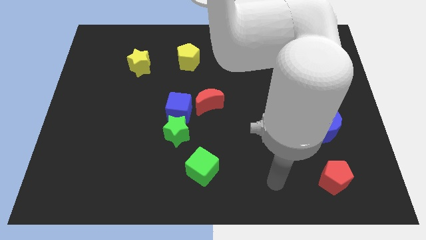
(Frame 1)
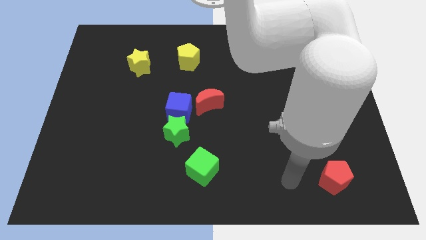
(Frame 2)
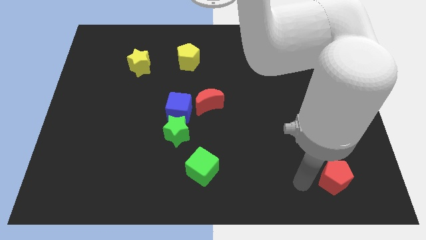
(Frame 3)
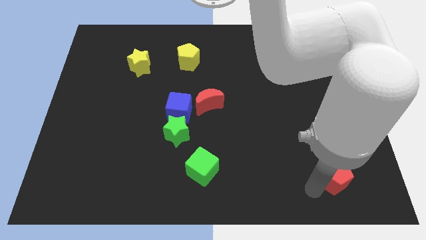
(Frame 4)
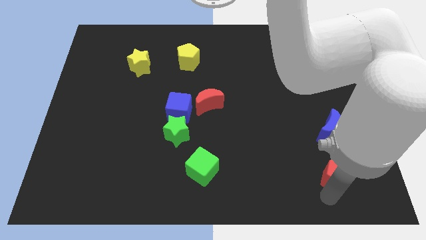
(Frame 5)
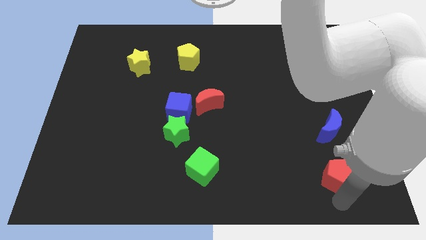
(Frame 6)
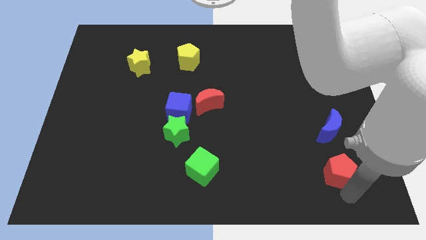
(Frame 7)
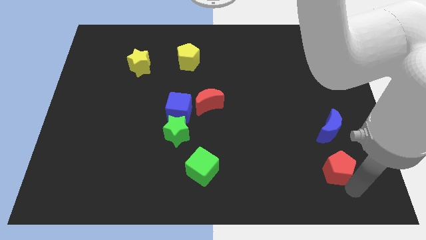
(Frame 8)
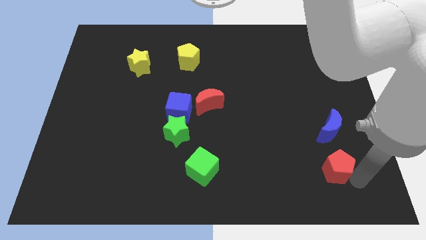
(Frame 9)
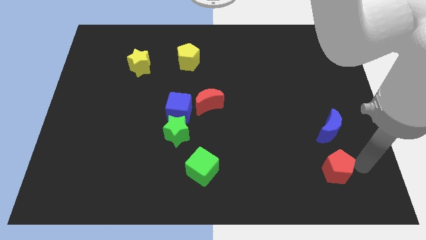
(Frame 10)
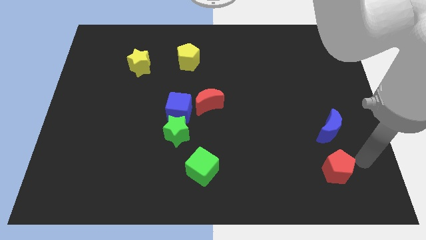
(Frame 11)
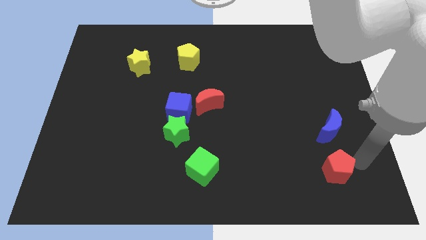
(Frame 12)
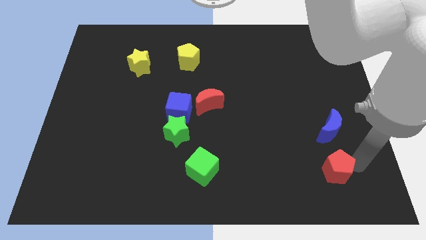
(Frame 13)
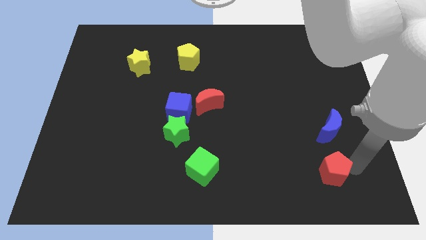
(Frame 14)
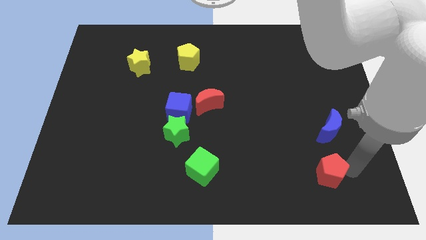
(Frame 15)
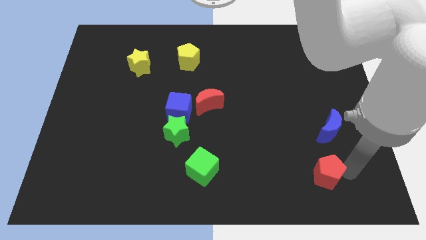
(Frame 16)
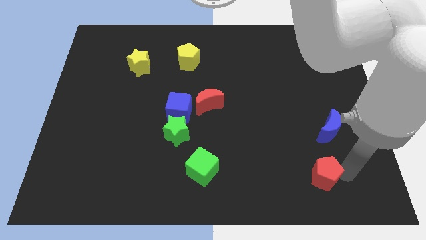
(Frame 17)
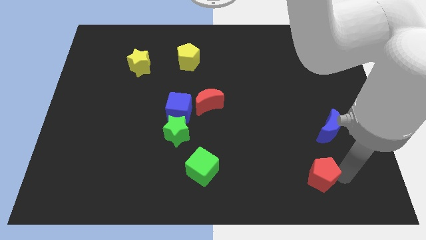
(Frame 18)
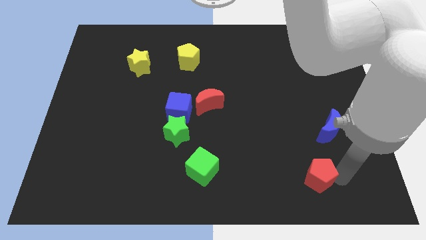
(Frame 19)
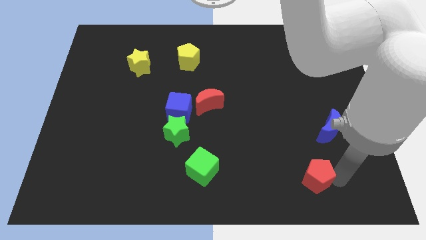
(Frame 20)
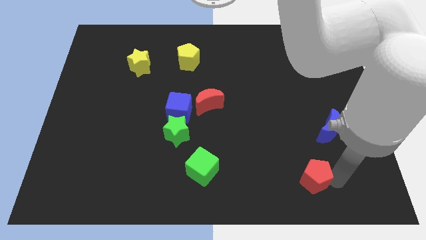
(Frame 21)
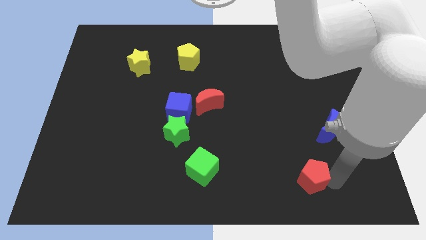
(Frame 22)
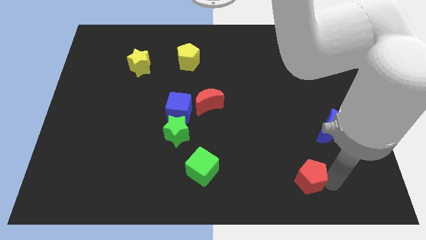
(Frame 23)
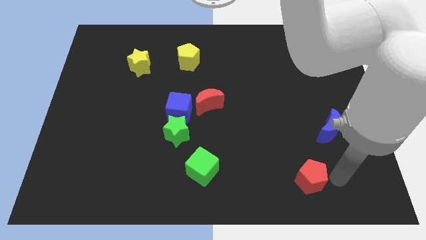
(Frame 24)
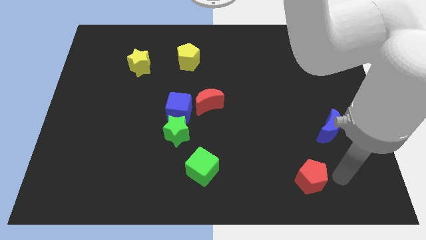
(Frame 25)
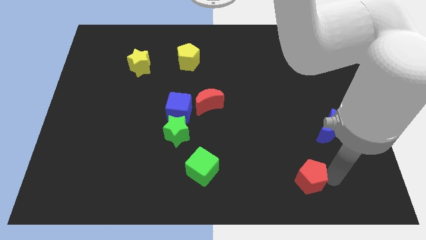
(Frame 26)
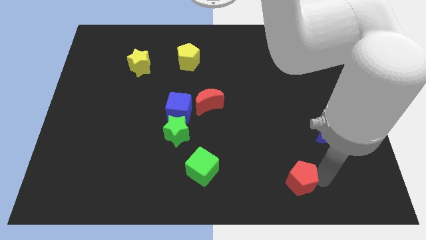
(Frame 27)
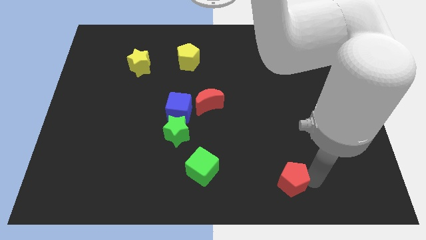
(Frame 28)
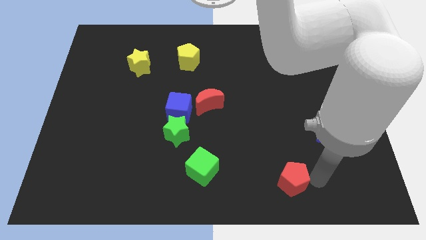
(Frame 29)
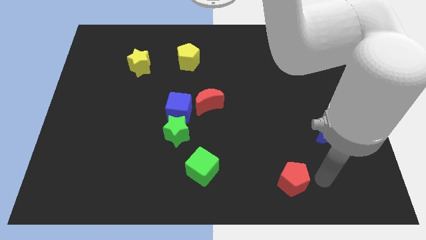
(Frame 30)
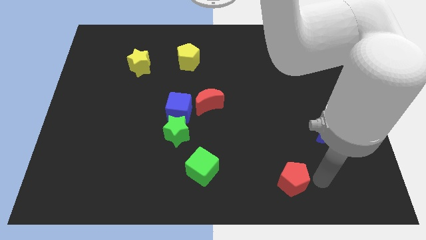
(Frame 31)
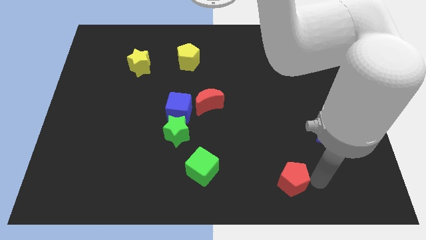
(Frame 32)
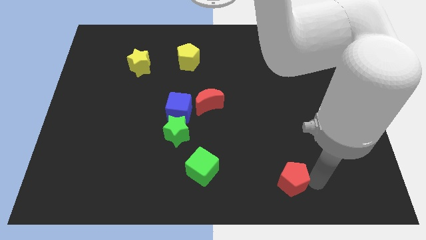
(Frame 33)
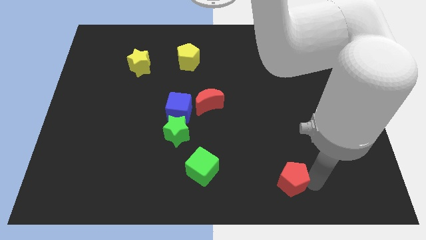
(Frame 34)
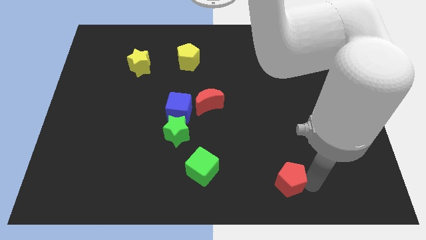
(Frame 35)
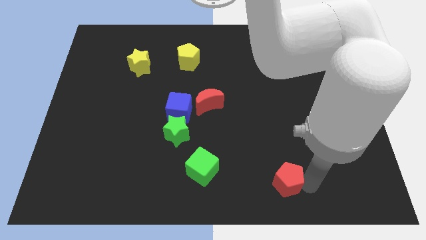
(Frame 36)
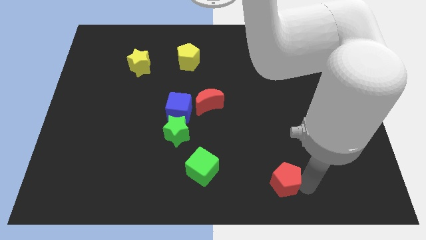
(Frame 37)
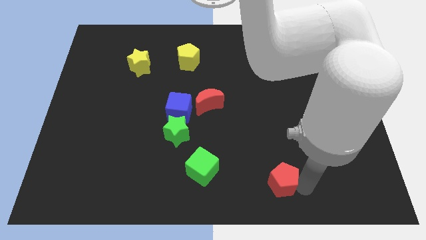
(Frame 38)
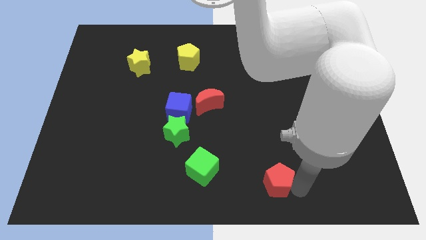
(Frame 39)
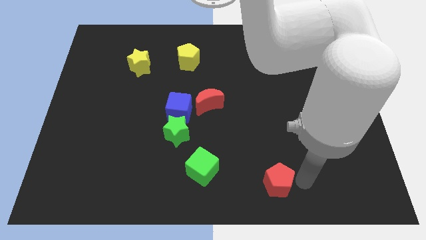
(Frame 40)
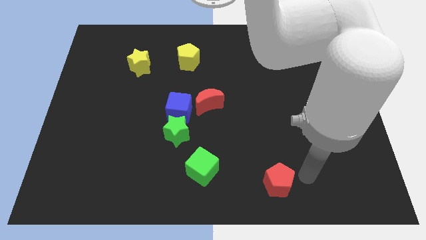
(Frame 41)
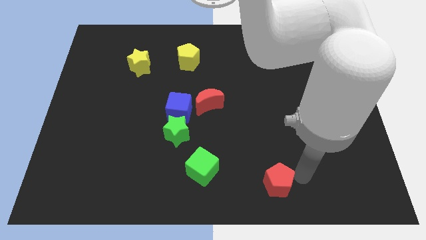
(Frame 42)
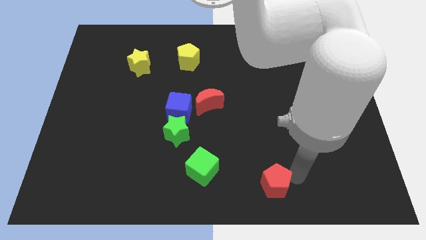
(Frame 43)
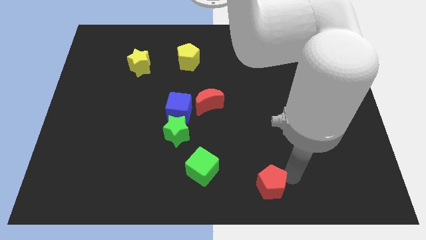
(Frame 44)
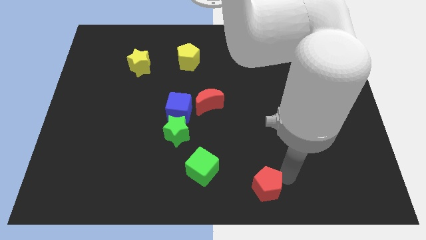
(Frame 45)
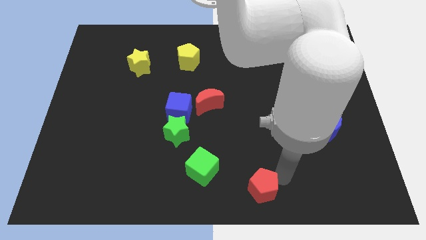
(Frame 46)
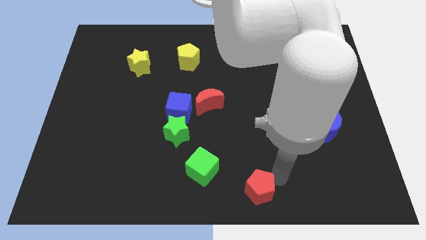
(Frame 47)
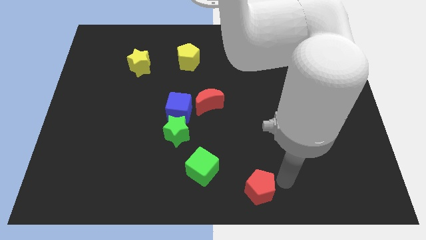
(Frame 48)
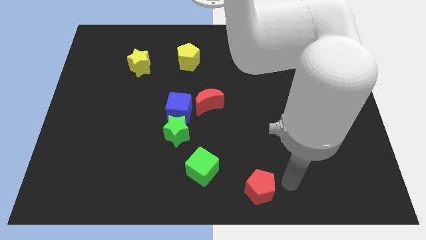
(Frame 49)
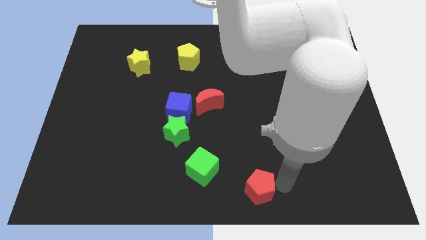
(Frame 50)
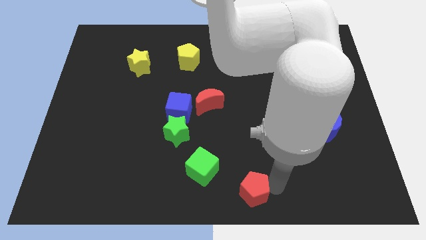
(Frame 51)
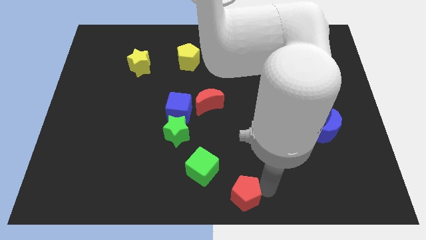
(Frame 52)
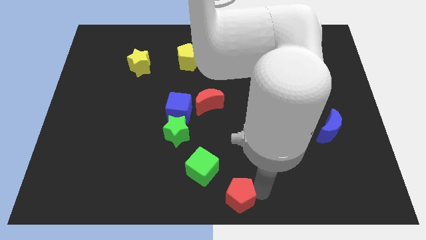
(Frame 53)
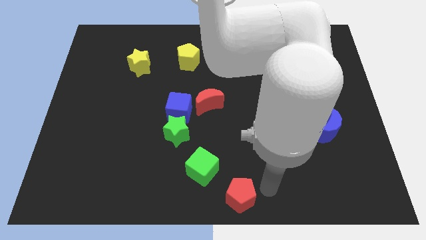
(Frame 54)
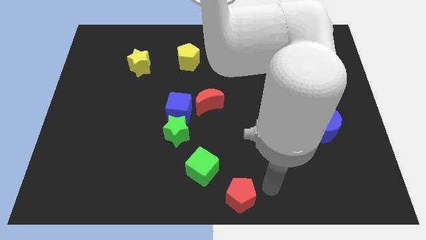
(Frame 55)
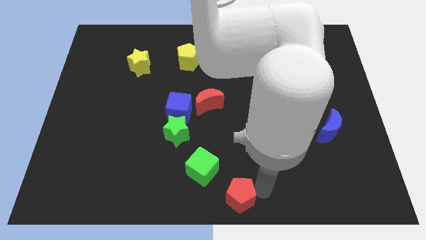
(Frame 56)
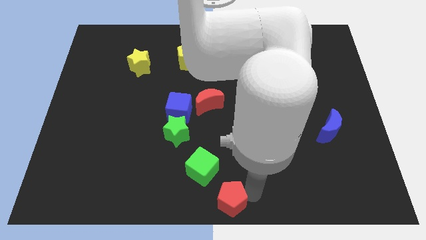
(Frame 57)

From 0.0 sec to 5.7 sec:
move the red pentagon to the left

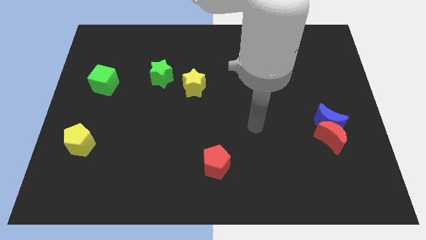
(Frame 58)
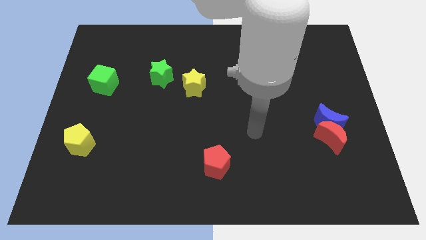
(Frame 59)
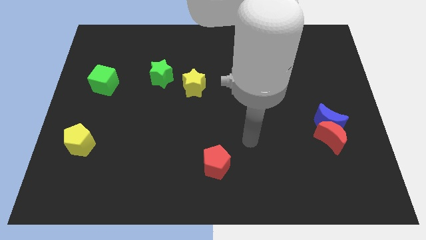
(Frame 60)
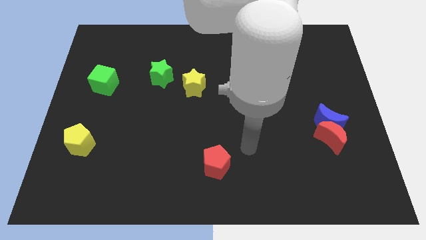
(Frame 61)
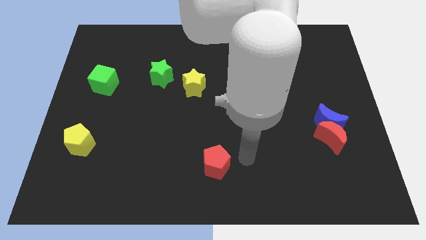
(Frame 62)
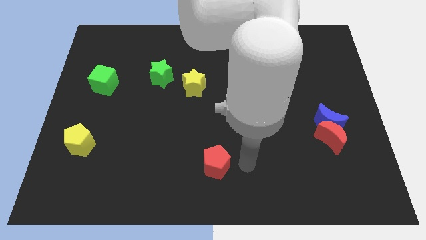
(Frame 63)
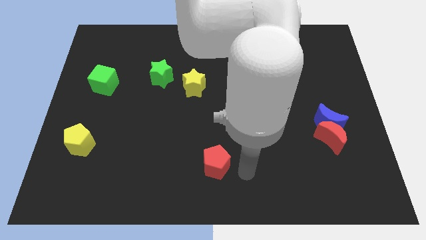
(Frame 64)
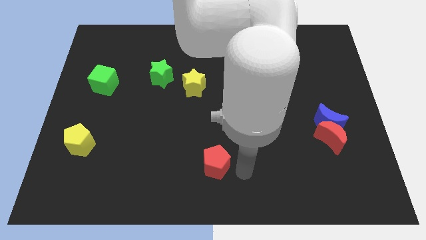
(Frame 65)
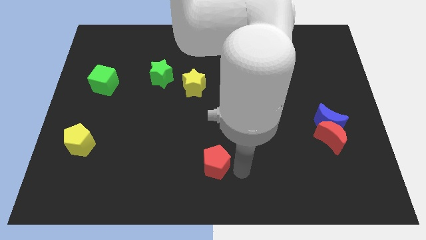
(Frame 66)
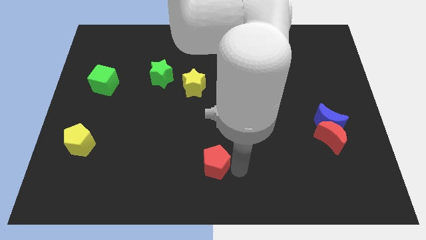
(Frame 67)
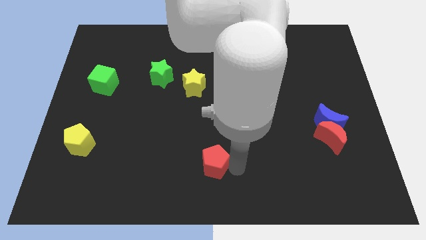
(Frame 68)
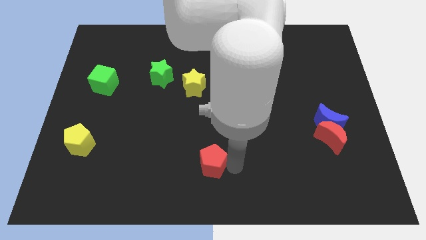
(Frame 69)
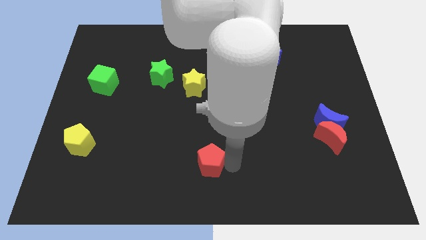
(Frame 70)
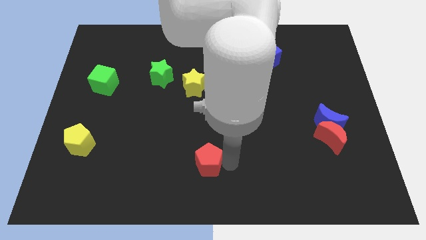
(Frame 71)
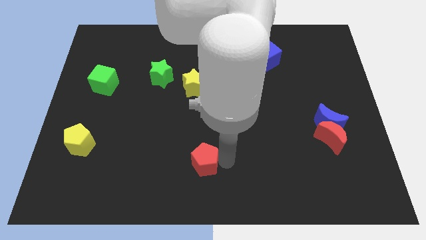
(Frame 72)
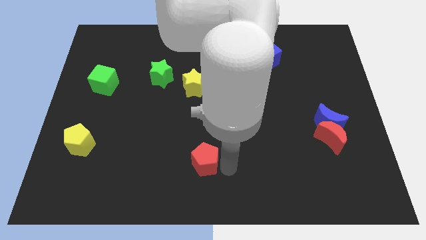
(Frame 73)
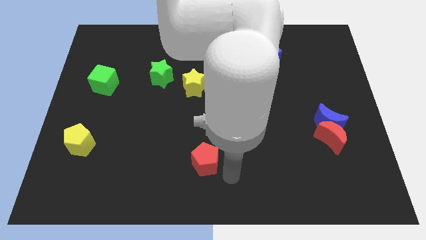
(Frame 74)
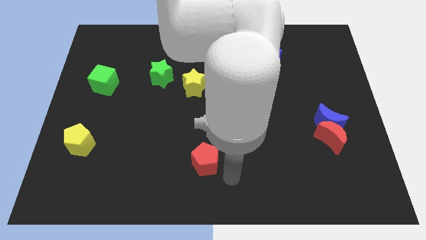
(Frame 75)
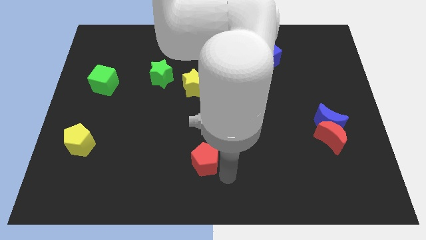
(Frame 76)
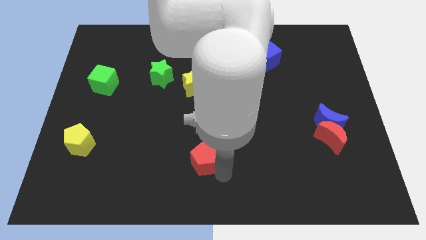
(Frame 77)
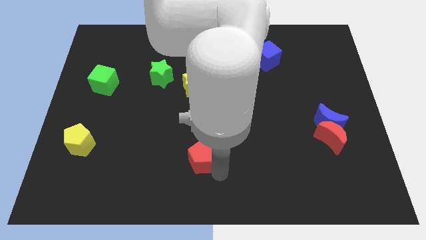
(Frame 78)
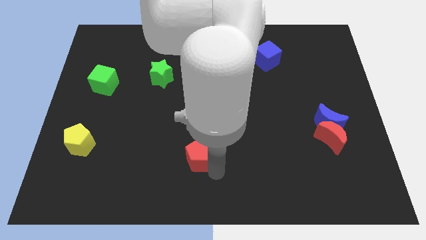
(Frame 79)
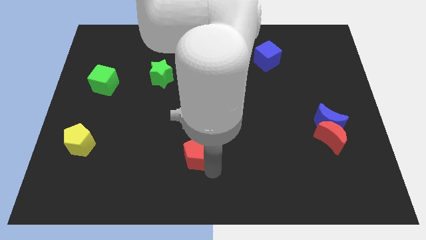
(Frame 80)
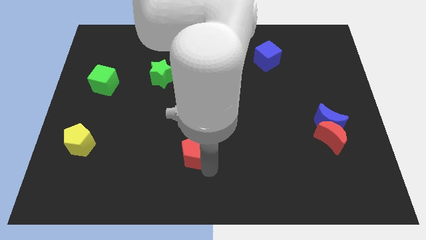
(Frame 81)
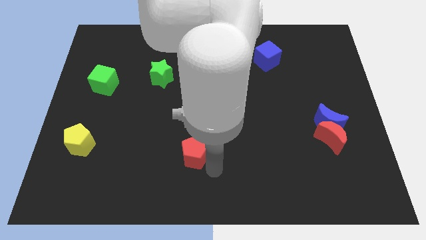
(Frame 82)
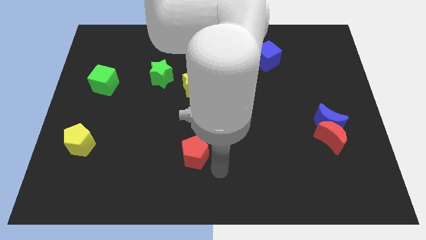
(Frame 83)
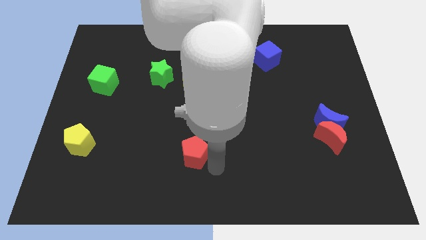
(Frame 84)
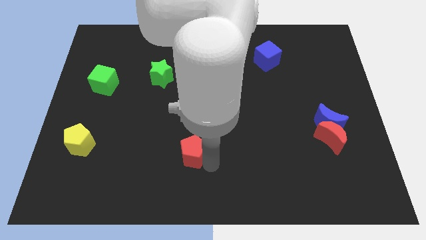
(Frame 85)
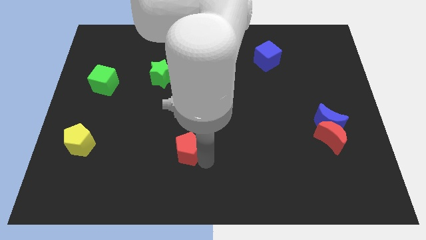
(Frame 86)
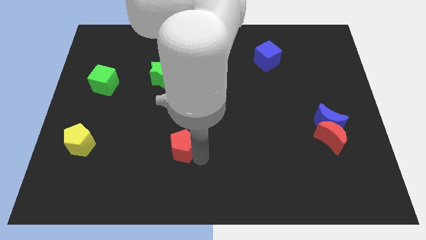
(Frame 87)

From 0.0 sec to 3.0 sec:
slide the red pentagon diagonally up and to the left somewhat
